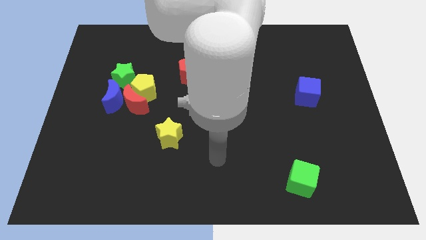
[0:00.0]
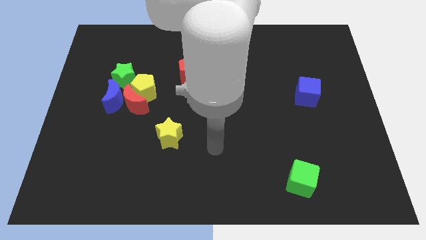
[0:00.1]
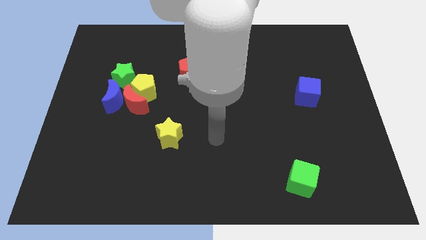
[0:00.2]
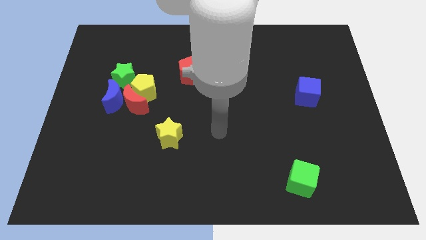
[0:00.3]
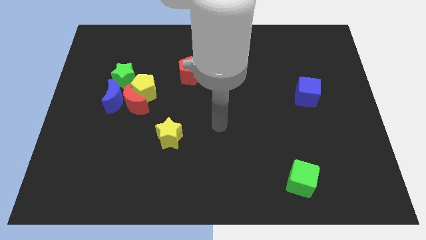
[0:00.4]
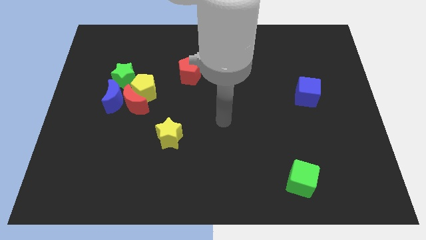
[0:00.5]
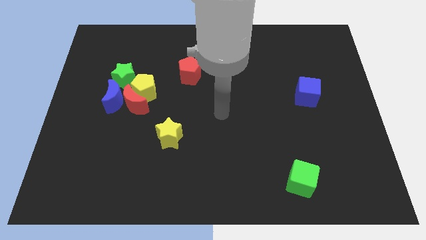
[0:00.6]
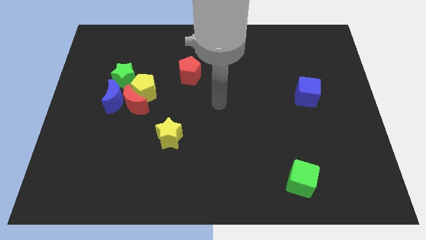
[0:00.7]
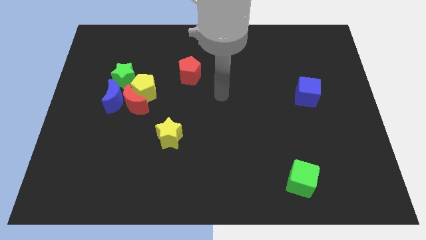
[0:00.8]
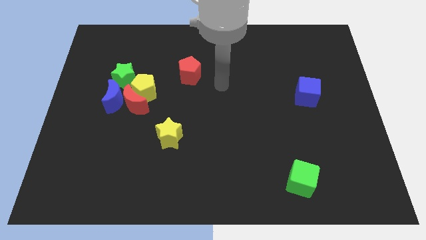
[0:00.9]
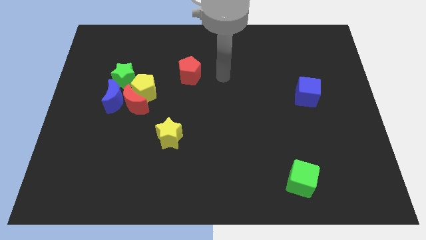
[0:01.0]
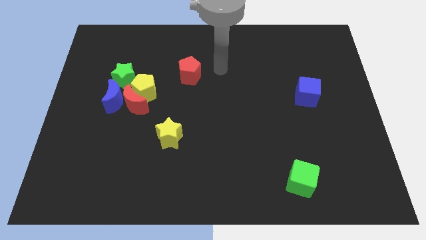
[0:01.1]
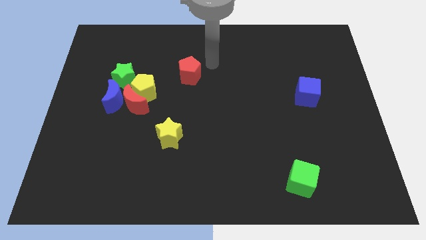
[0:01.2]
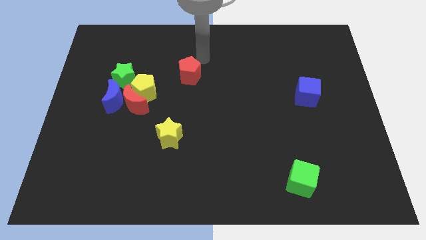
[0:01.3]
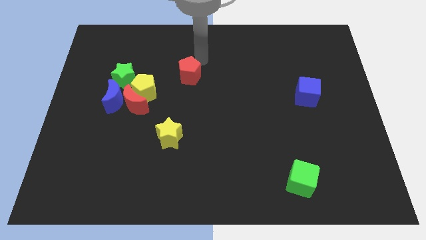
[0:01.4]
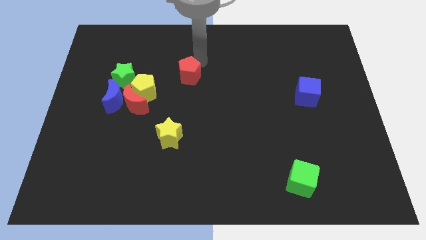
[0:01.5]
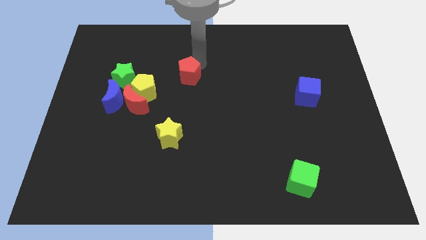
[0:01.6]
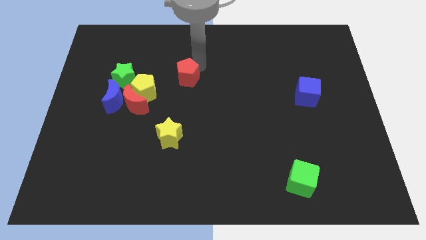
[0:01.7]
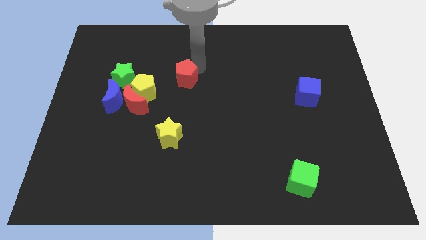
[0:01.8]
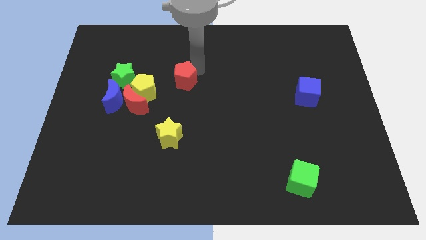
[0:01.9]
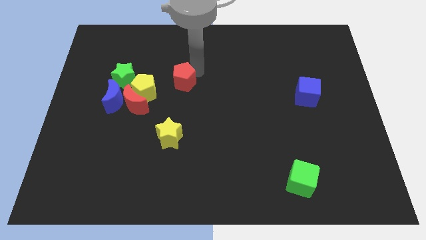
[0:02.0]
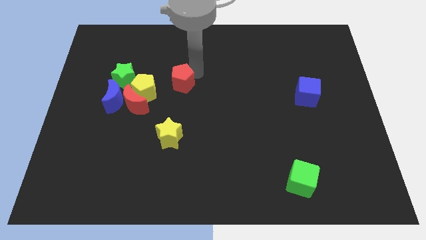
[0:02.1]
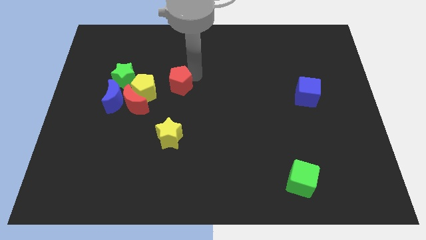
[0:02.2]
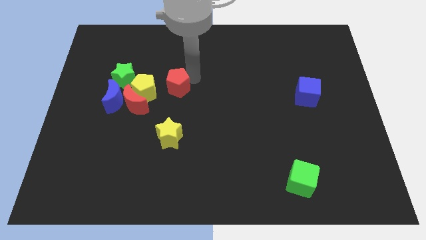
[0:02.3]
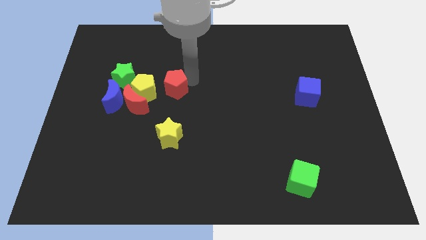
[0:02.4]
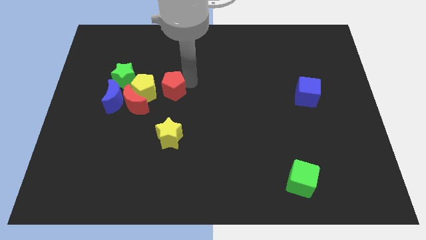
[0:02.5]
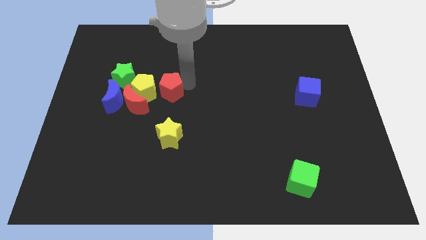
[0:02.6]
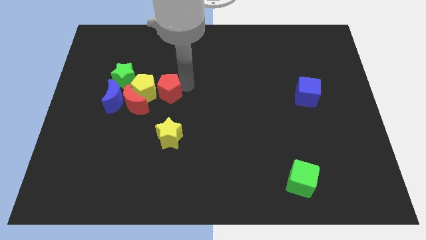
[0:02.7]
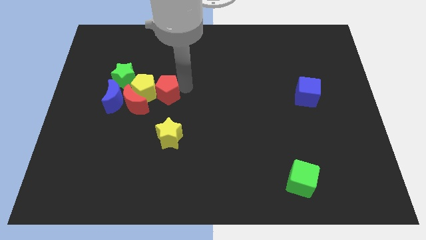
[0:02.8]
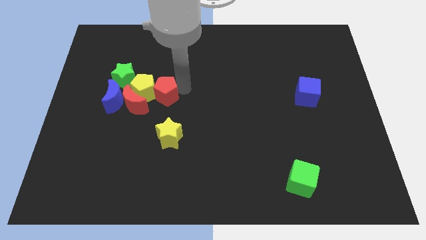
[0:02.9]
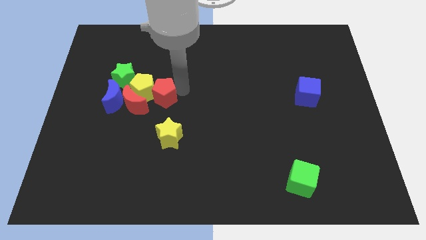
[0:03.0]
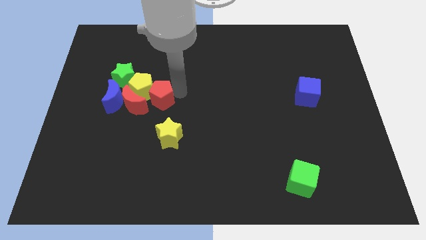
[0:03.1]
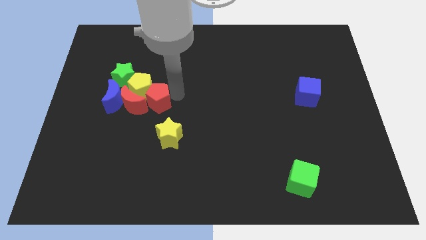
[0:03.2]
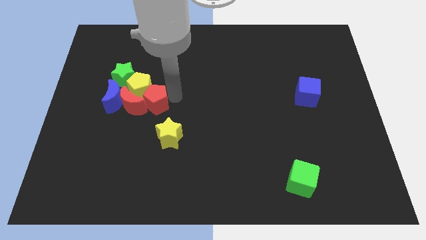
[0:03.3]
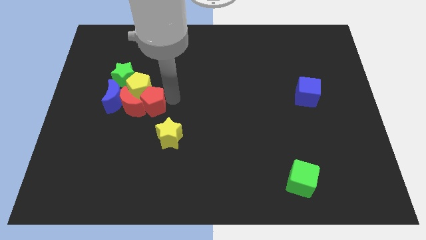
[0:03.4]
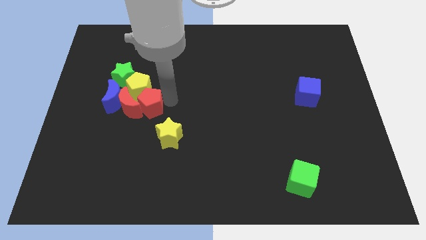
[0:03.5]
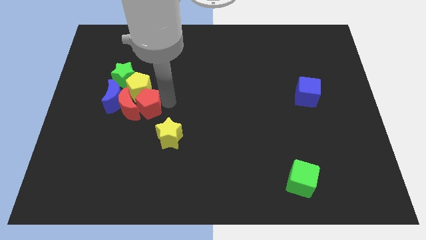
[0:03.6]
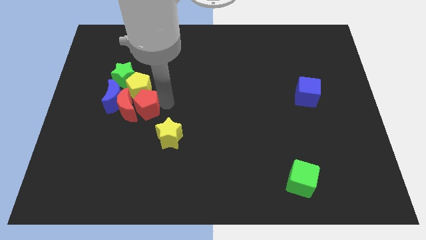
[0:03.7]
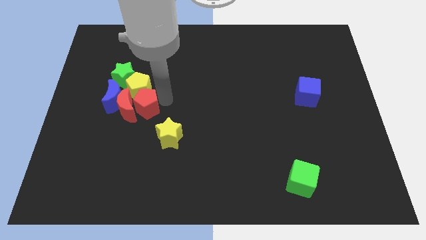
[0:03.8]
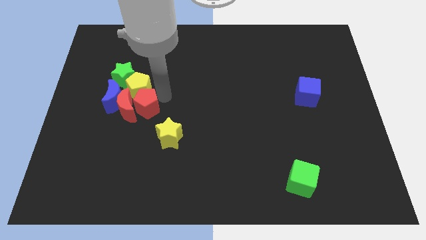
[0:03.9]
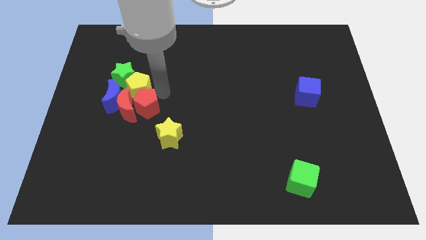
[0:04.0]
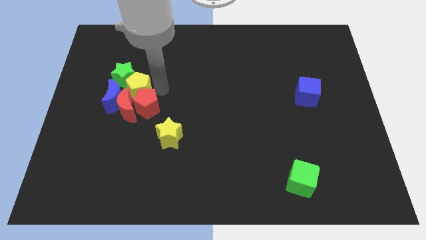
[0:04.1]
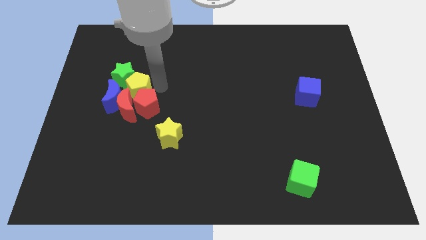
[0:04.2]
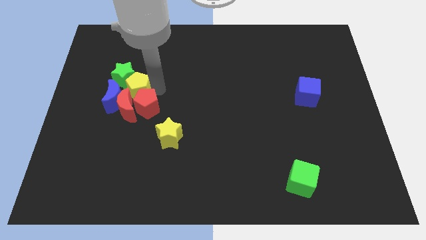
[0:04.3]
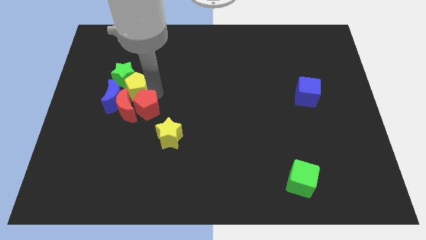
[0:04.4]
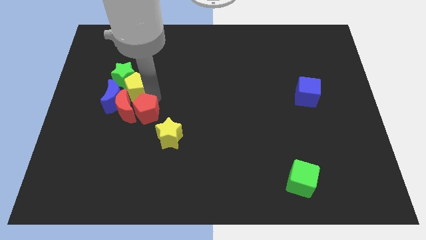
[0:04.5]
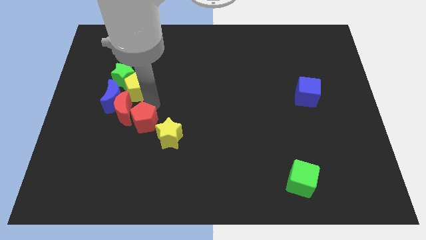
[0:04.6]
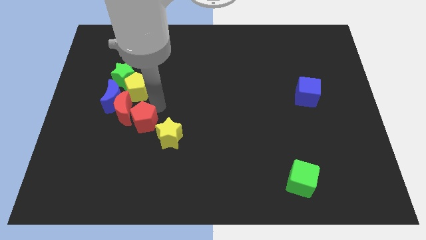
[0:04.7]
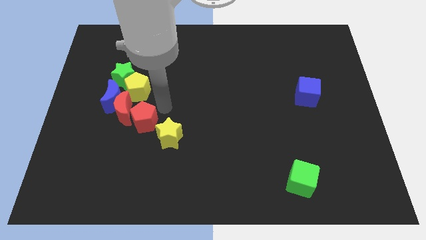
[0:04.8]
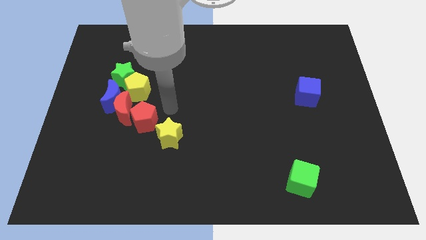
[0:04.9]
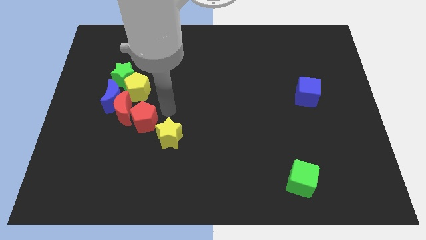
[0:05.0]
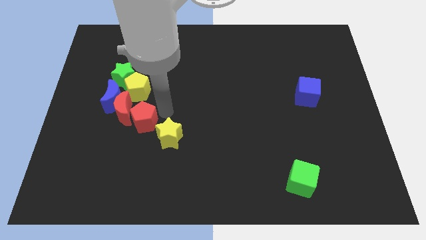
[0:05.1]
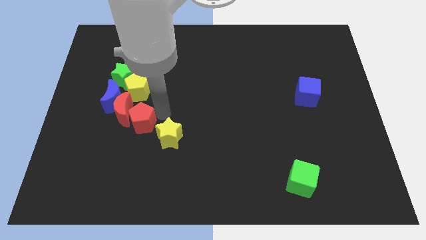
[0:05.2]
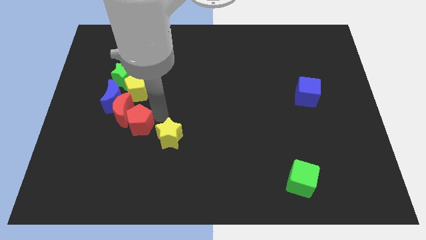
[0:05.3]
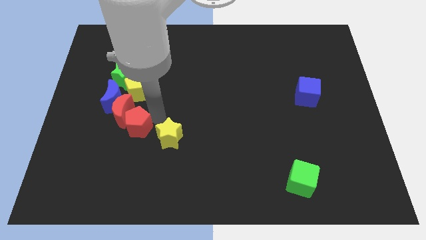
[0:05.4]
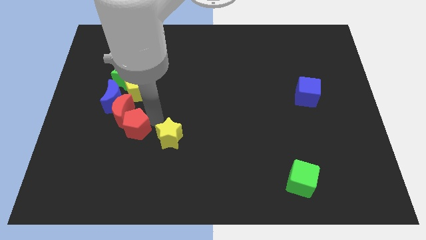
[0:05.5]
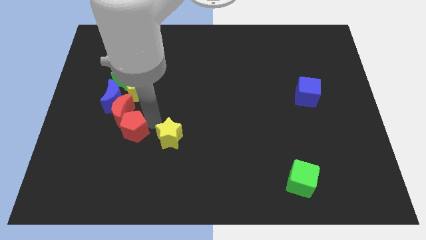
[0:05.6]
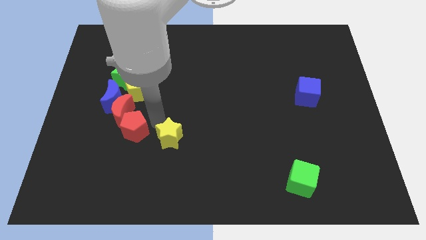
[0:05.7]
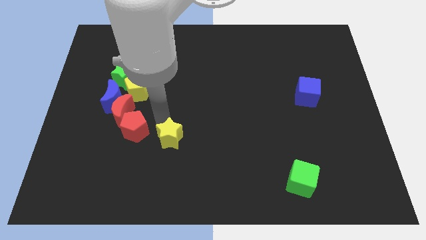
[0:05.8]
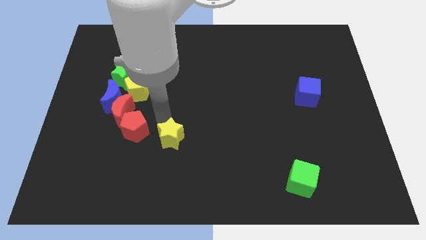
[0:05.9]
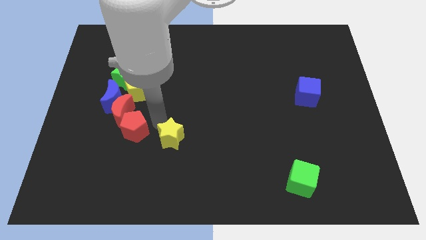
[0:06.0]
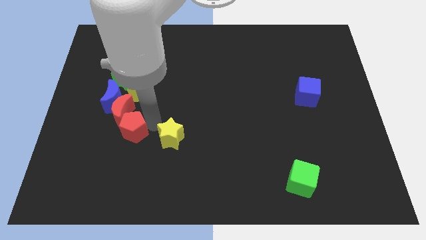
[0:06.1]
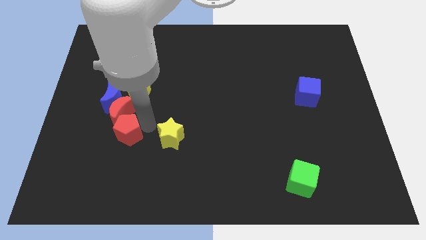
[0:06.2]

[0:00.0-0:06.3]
slide the red pentagon down and then left

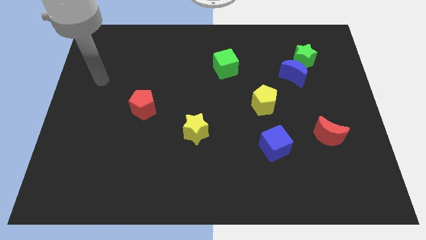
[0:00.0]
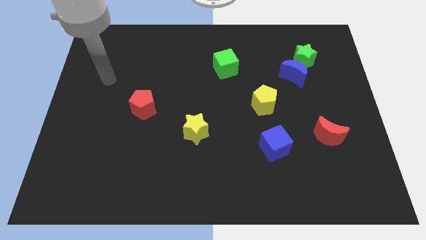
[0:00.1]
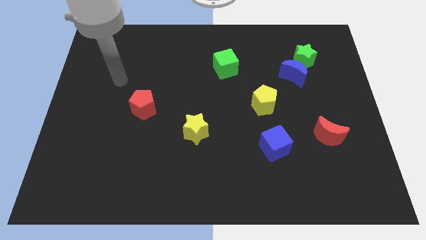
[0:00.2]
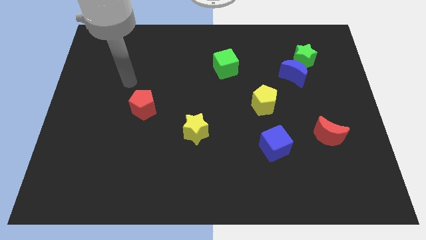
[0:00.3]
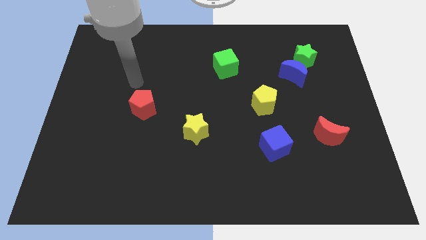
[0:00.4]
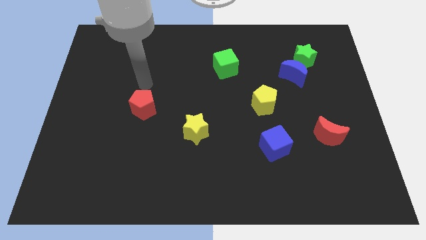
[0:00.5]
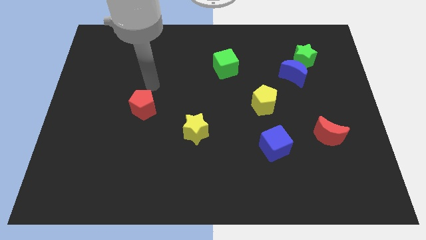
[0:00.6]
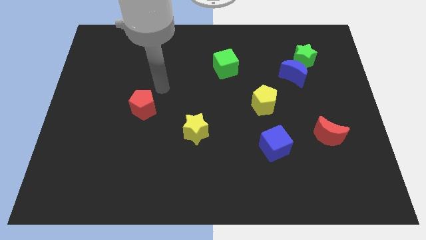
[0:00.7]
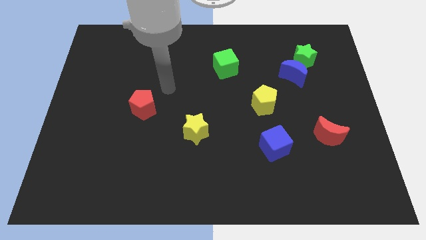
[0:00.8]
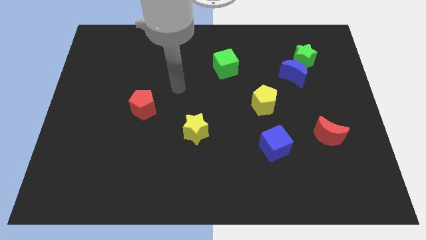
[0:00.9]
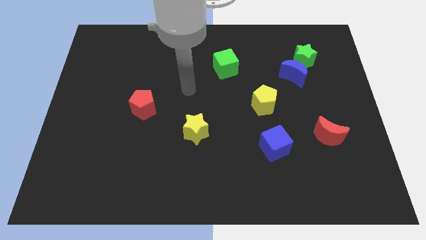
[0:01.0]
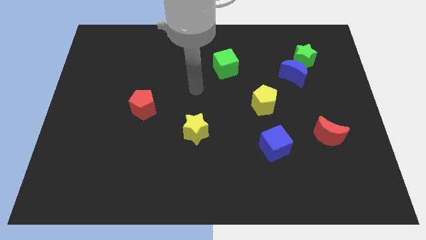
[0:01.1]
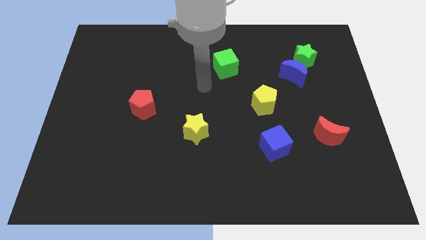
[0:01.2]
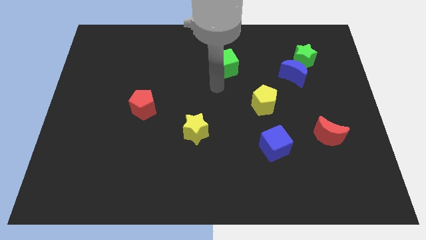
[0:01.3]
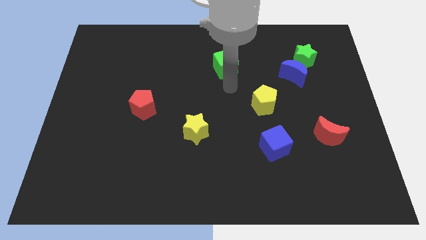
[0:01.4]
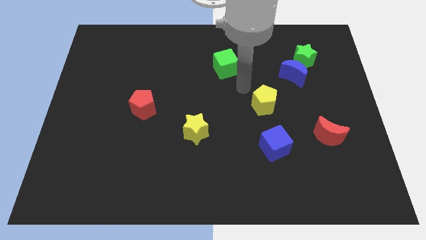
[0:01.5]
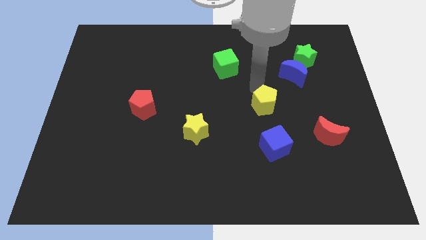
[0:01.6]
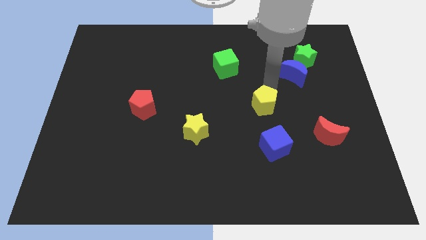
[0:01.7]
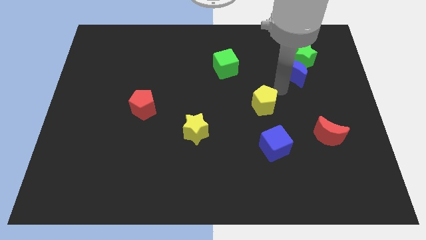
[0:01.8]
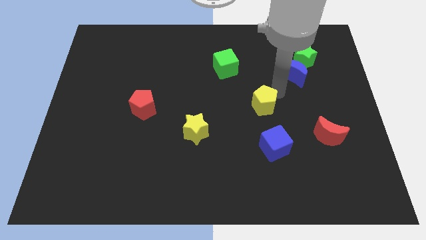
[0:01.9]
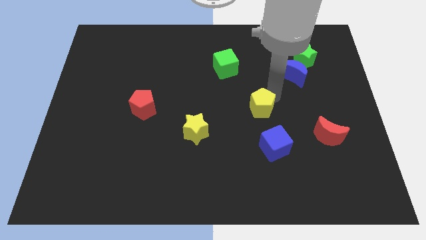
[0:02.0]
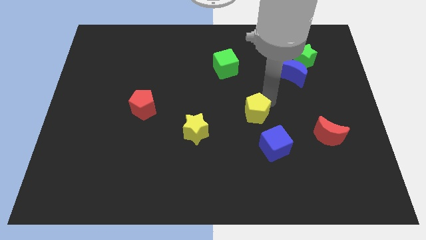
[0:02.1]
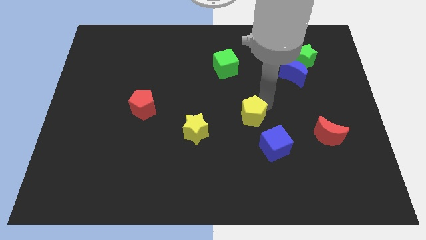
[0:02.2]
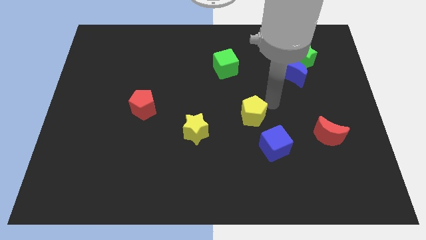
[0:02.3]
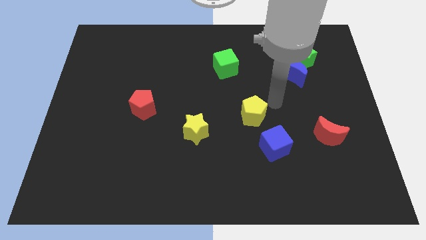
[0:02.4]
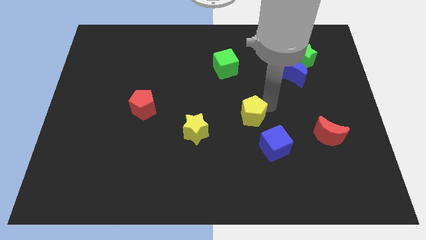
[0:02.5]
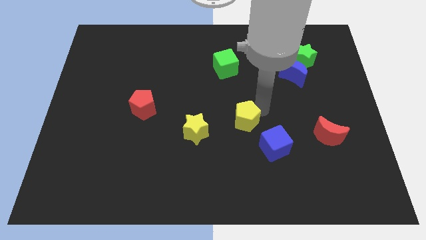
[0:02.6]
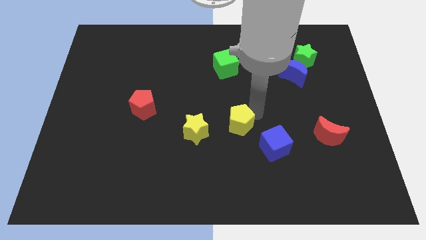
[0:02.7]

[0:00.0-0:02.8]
slightly move the yellow pentagon downwards and then to the left
